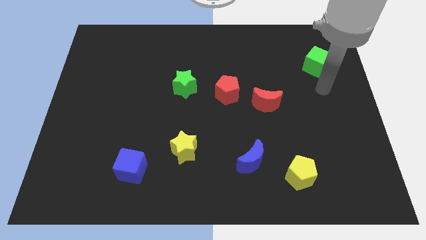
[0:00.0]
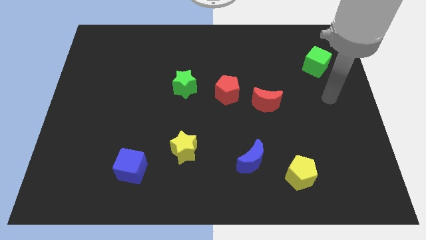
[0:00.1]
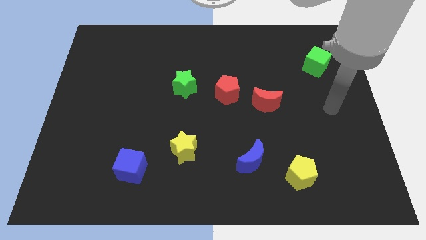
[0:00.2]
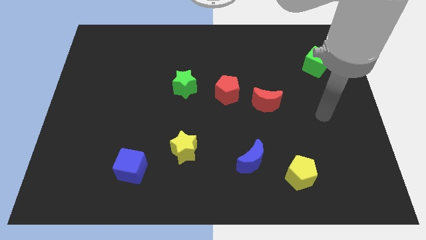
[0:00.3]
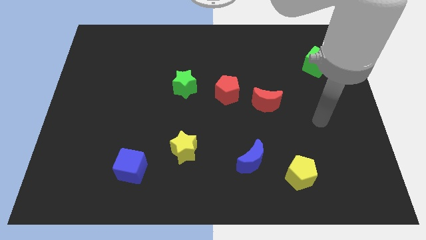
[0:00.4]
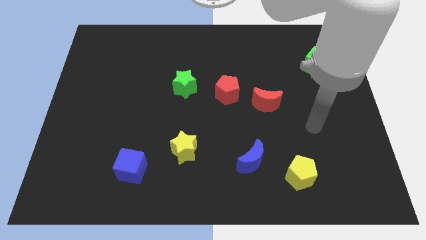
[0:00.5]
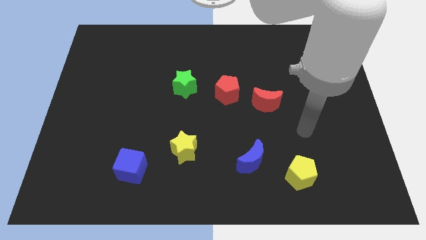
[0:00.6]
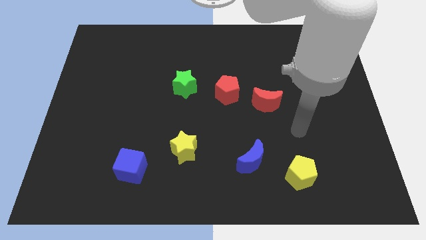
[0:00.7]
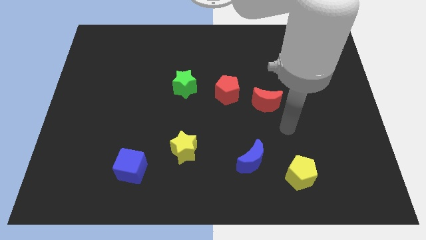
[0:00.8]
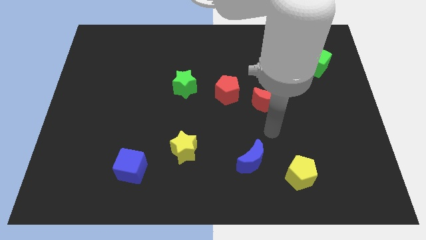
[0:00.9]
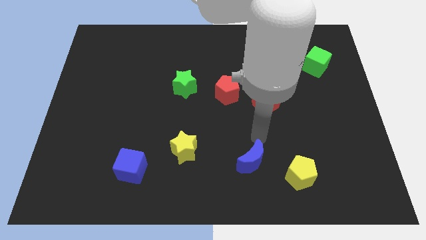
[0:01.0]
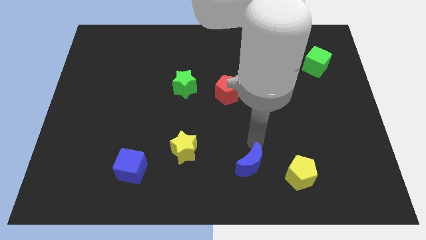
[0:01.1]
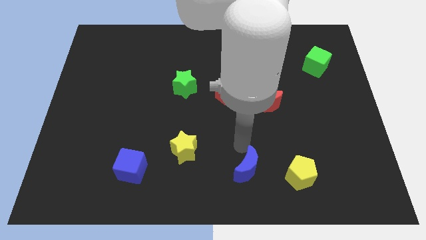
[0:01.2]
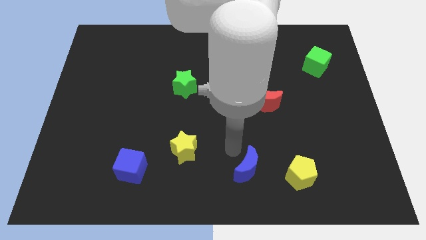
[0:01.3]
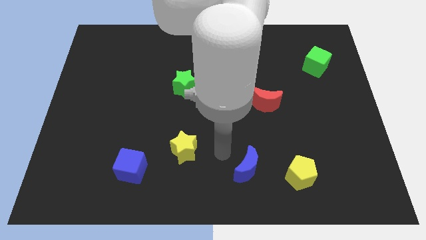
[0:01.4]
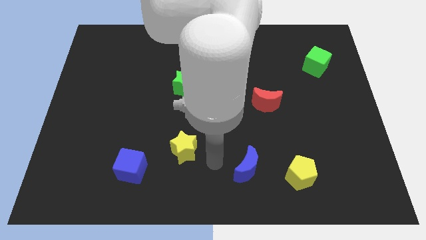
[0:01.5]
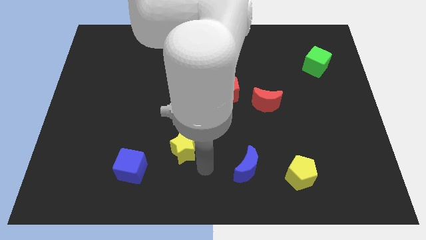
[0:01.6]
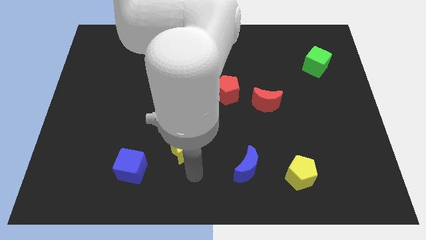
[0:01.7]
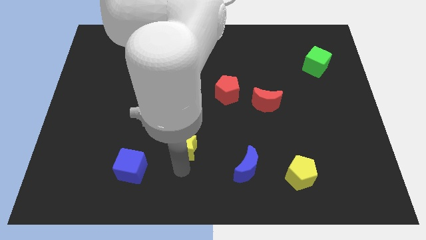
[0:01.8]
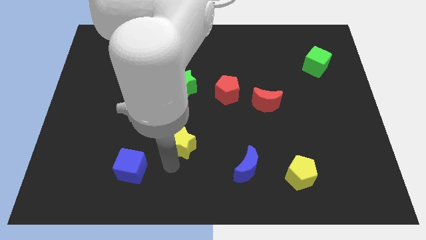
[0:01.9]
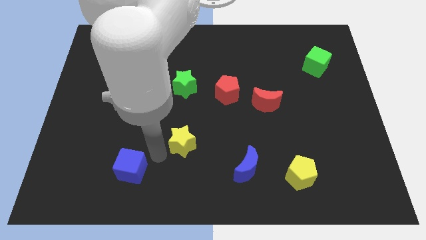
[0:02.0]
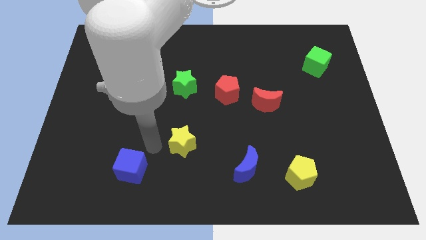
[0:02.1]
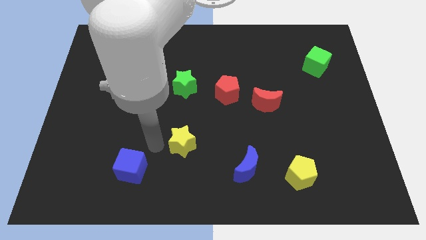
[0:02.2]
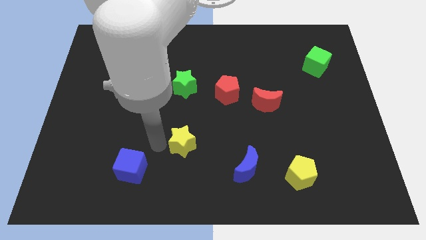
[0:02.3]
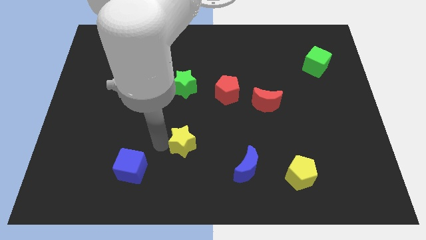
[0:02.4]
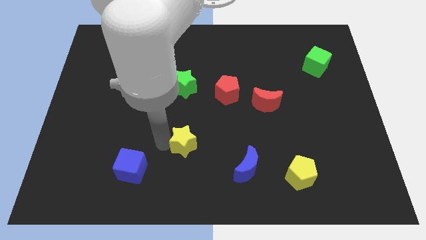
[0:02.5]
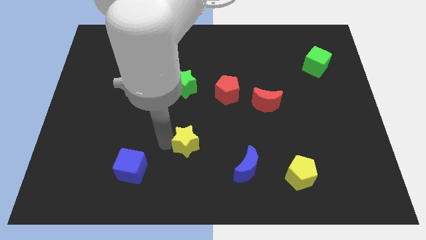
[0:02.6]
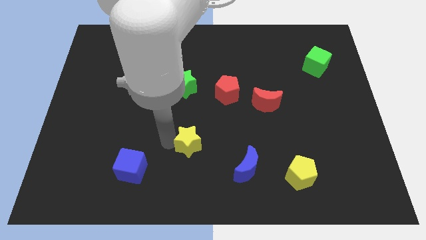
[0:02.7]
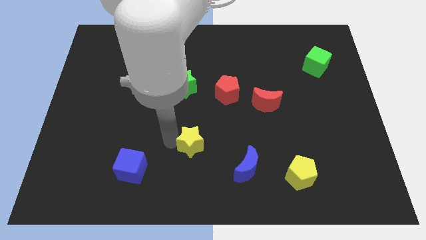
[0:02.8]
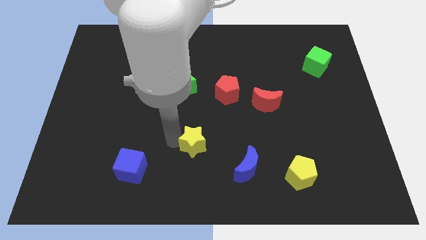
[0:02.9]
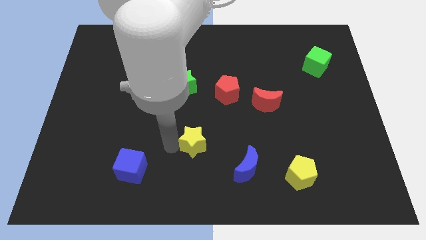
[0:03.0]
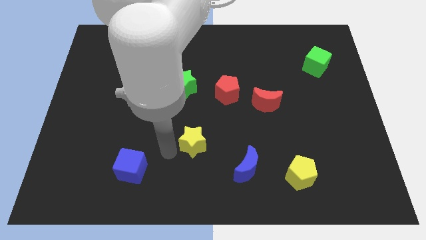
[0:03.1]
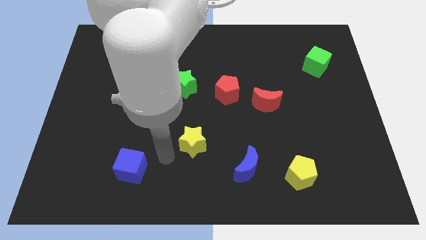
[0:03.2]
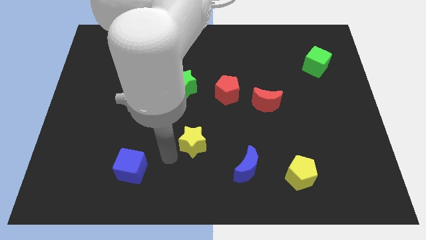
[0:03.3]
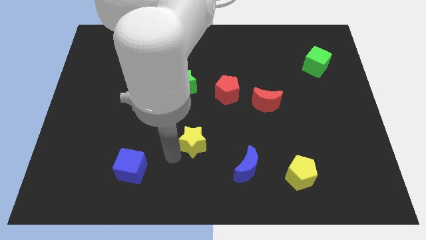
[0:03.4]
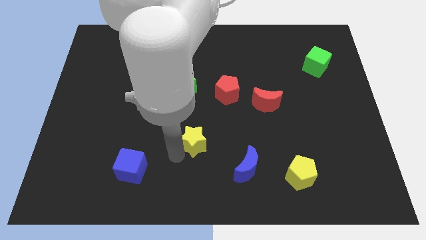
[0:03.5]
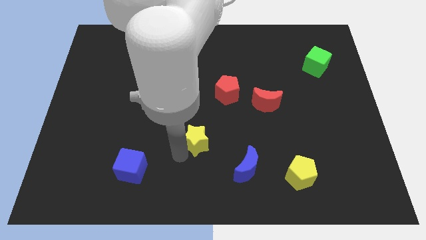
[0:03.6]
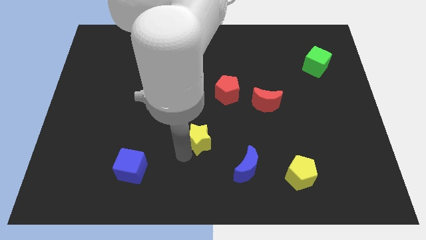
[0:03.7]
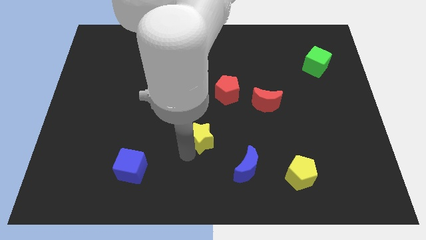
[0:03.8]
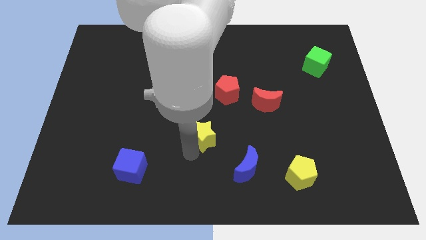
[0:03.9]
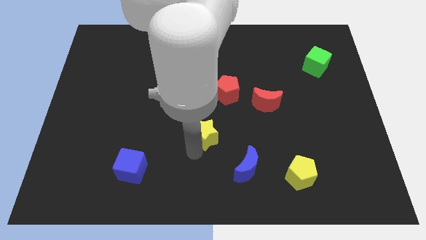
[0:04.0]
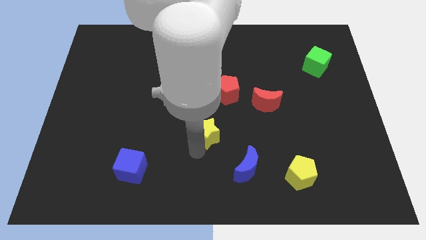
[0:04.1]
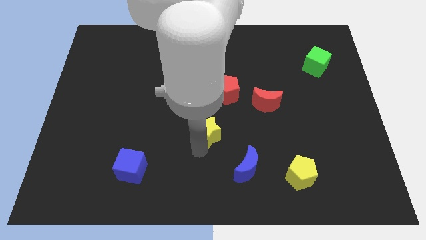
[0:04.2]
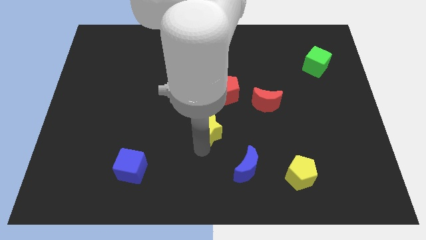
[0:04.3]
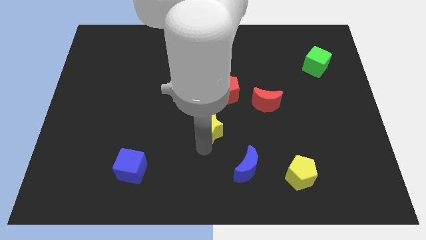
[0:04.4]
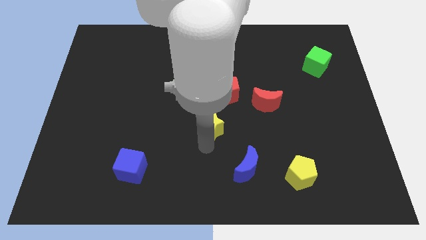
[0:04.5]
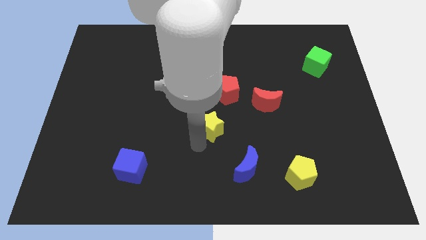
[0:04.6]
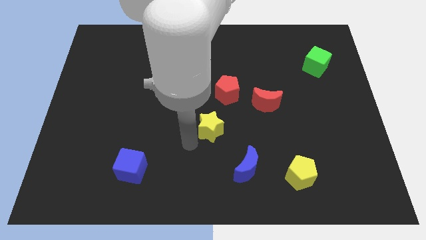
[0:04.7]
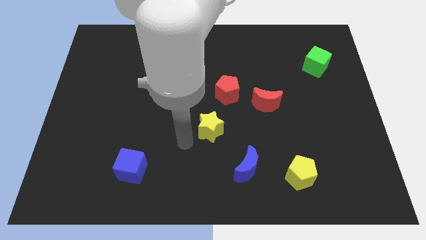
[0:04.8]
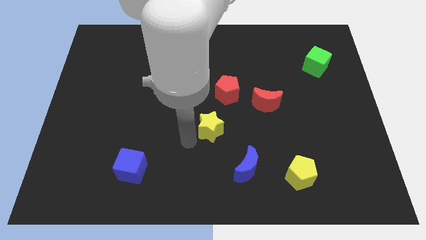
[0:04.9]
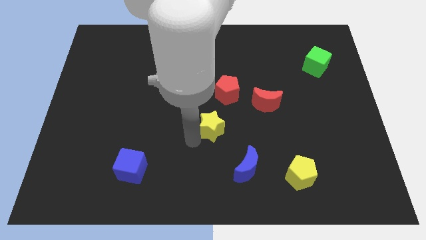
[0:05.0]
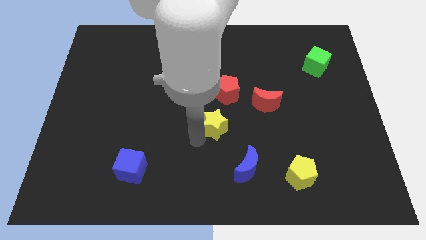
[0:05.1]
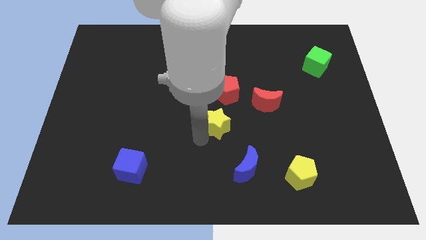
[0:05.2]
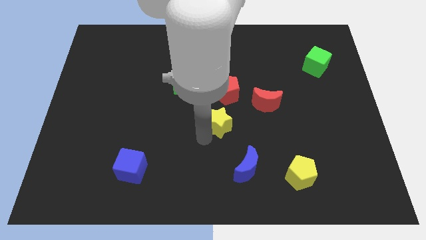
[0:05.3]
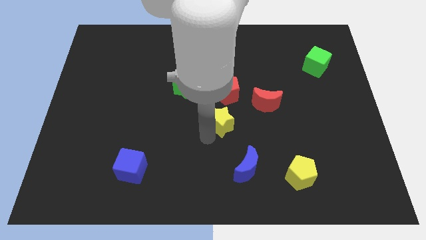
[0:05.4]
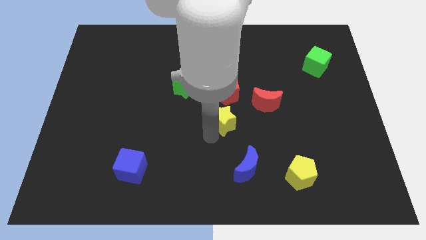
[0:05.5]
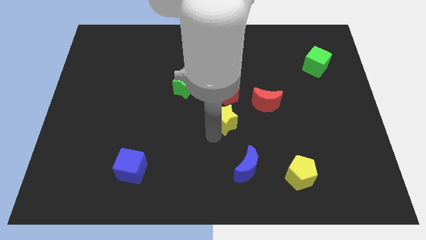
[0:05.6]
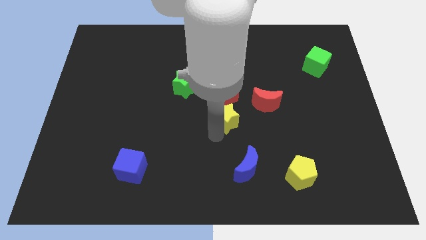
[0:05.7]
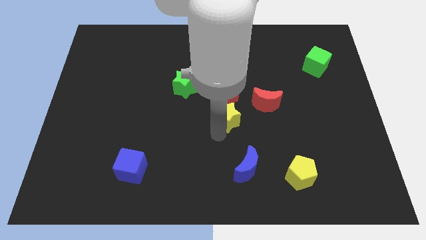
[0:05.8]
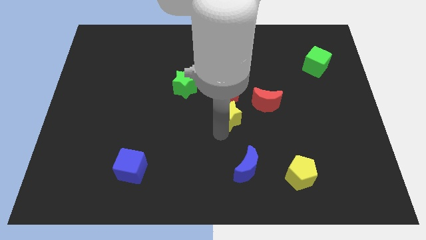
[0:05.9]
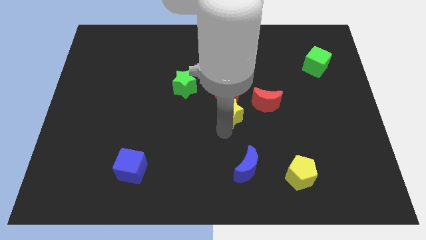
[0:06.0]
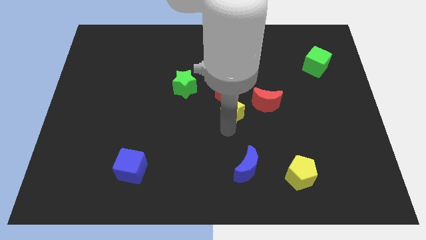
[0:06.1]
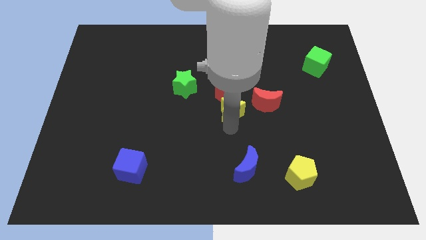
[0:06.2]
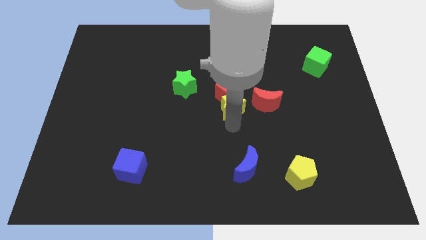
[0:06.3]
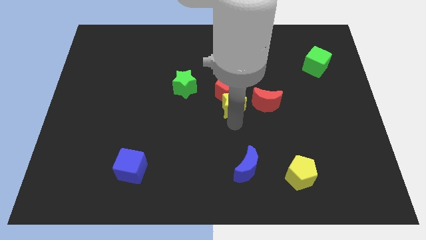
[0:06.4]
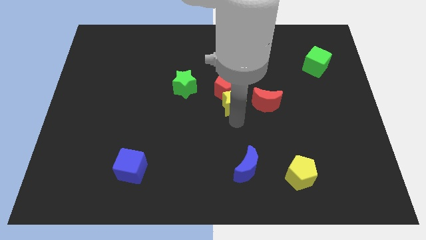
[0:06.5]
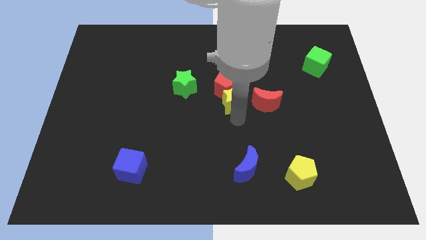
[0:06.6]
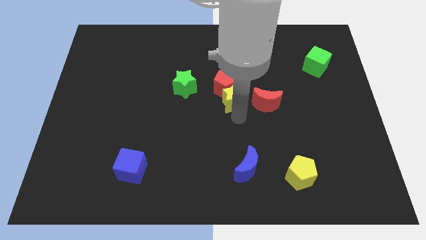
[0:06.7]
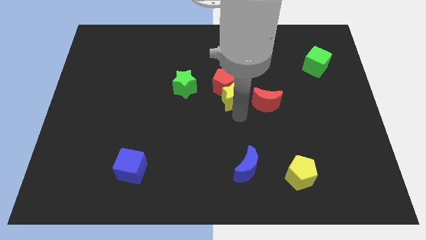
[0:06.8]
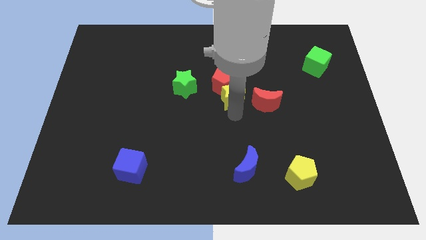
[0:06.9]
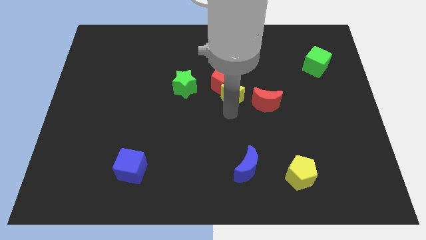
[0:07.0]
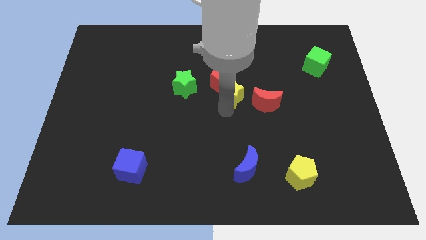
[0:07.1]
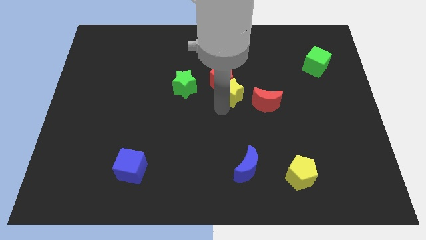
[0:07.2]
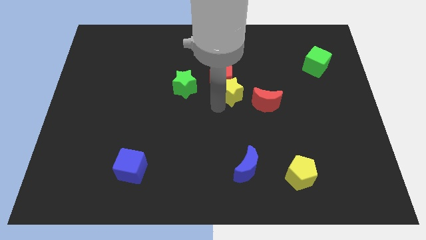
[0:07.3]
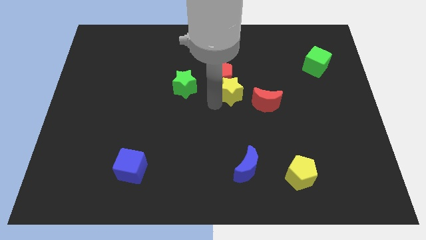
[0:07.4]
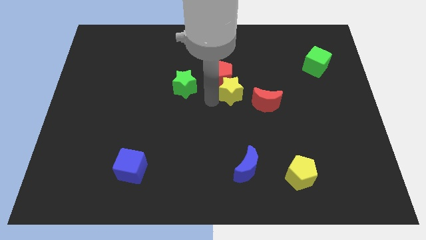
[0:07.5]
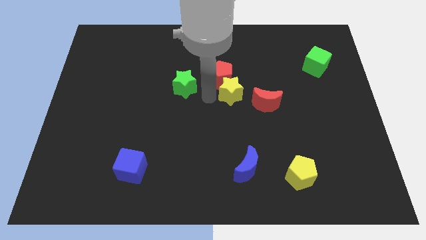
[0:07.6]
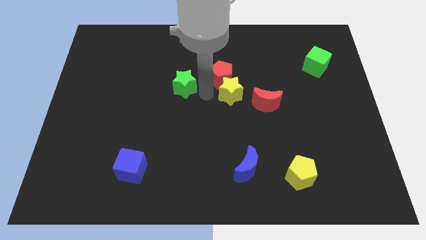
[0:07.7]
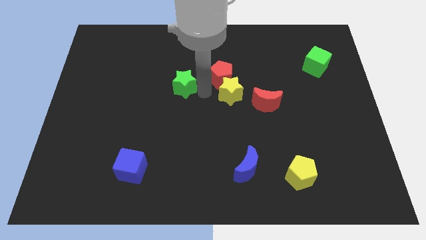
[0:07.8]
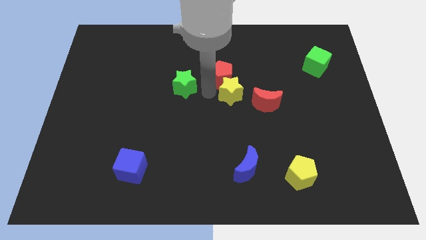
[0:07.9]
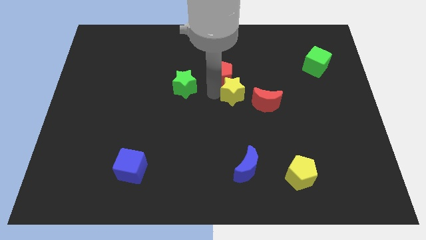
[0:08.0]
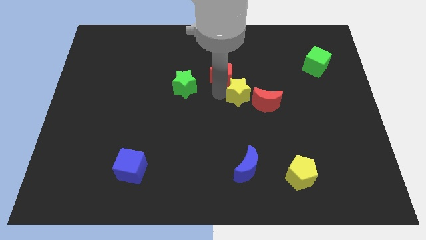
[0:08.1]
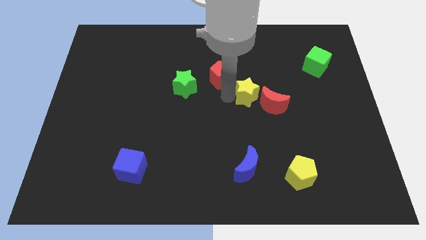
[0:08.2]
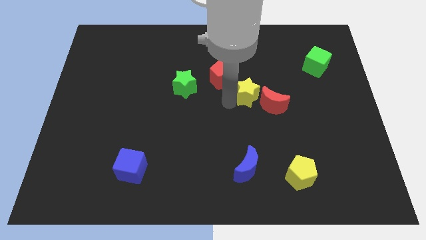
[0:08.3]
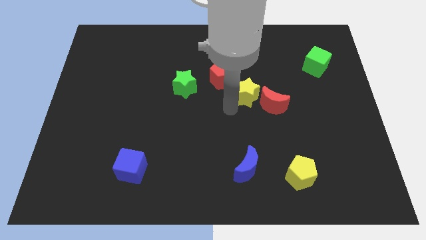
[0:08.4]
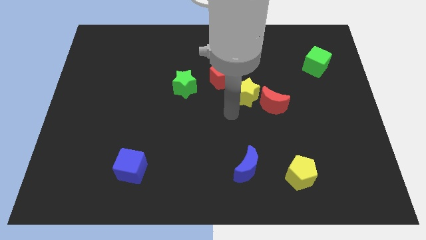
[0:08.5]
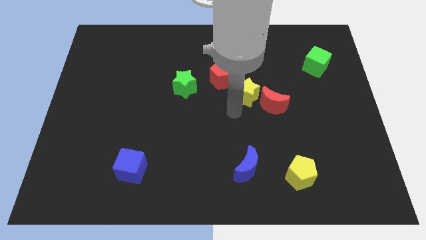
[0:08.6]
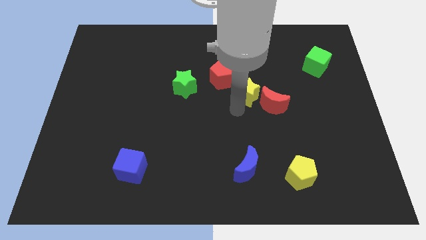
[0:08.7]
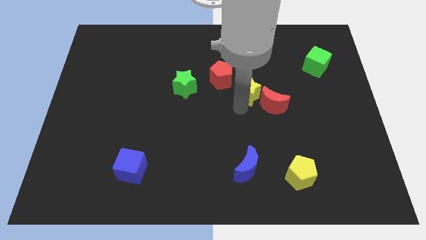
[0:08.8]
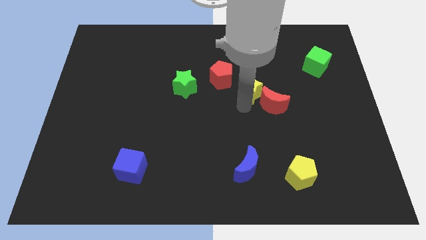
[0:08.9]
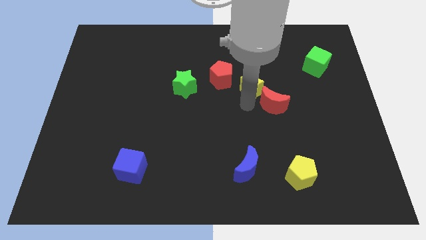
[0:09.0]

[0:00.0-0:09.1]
slide the yellow star to the top side of the red moon
